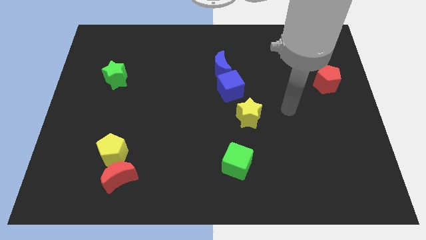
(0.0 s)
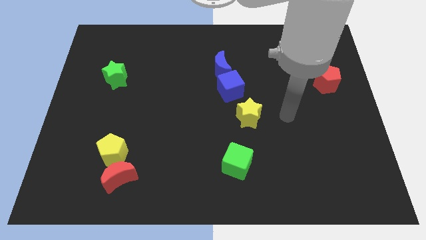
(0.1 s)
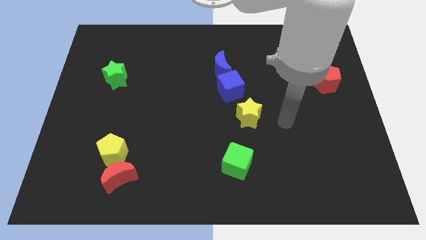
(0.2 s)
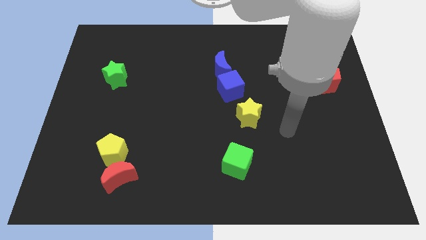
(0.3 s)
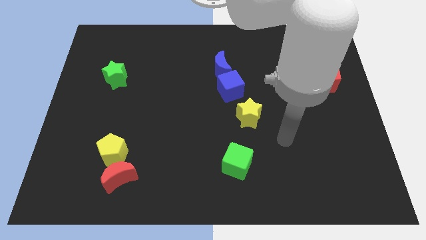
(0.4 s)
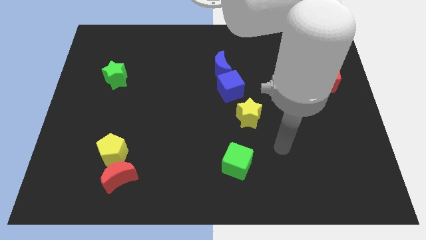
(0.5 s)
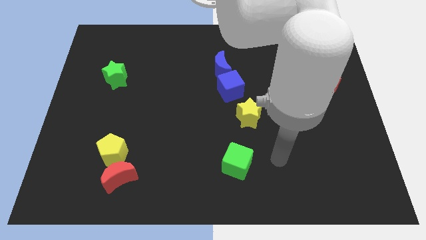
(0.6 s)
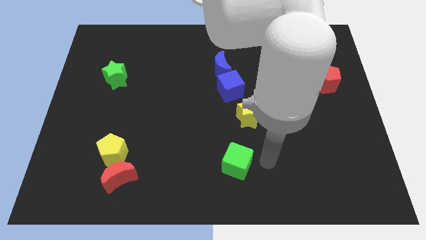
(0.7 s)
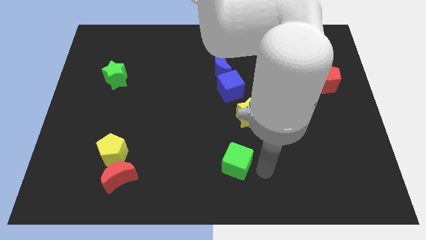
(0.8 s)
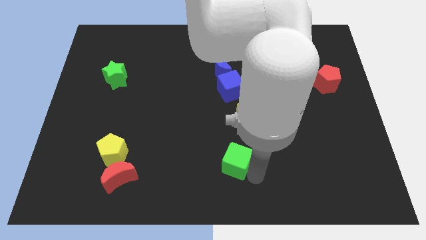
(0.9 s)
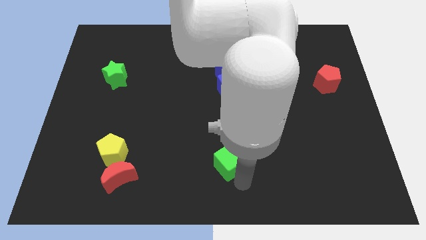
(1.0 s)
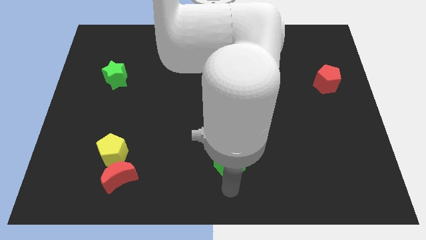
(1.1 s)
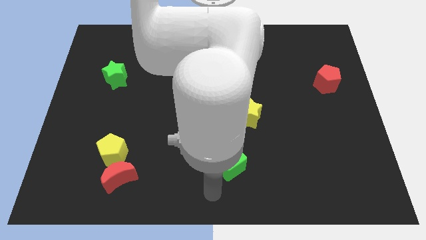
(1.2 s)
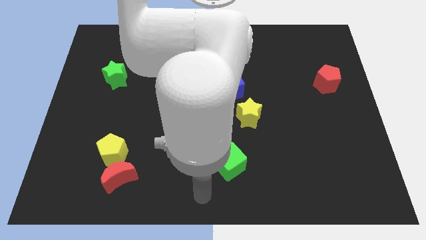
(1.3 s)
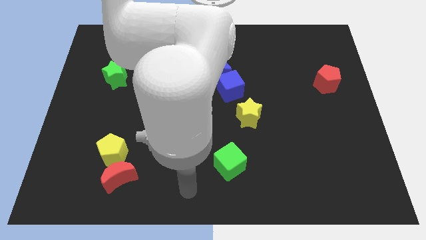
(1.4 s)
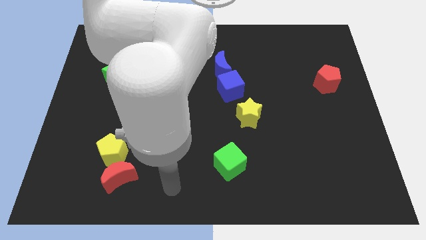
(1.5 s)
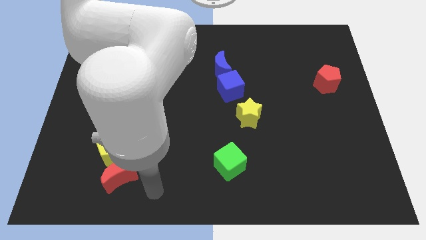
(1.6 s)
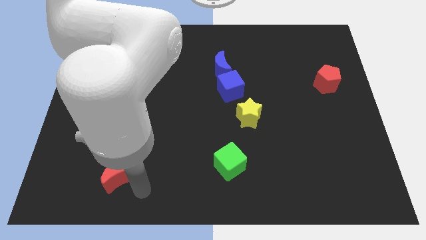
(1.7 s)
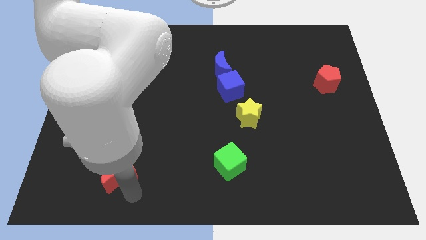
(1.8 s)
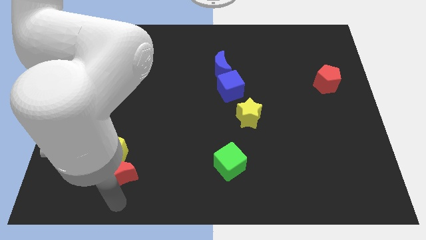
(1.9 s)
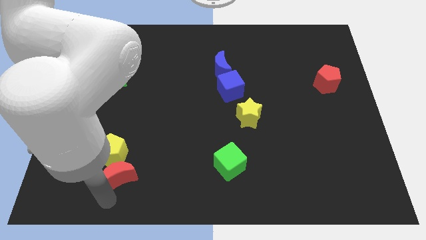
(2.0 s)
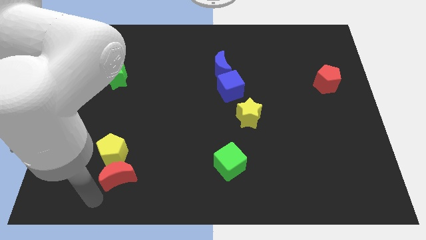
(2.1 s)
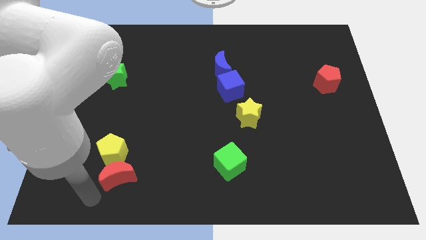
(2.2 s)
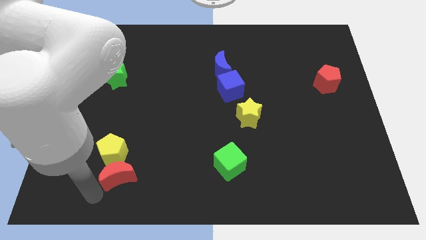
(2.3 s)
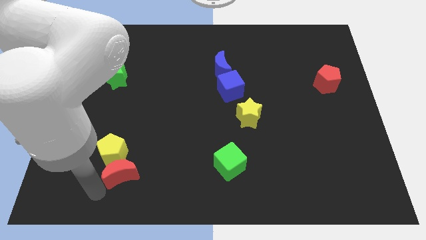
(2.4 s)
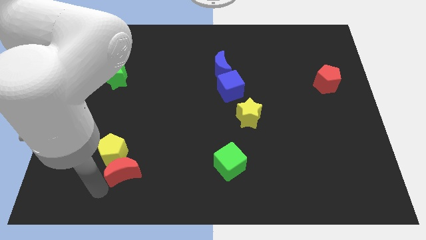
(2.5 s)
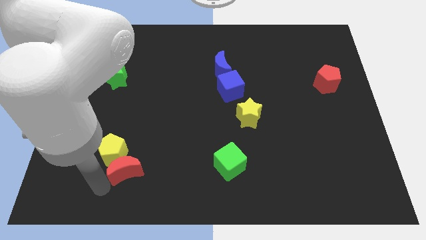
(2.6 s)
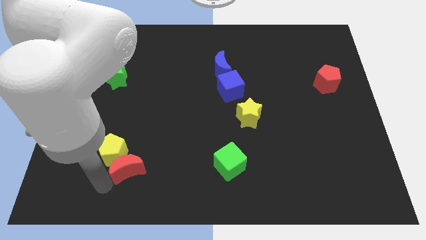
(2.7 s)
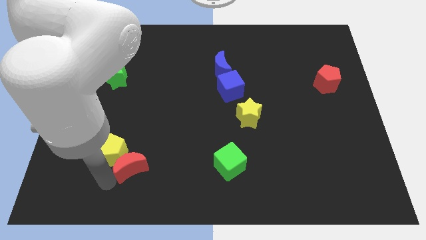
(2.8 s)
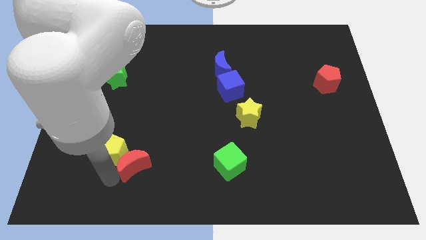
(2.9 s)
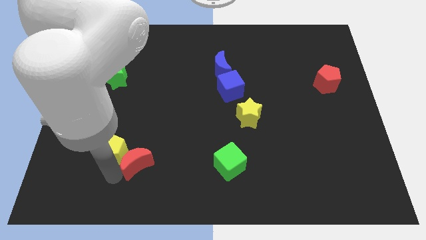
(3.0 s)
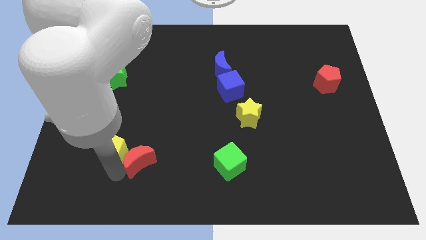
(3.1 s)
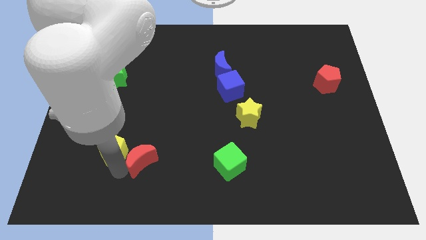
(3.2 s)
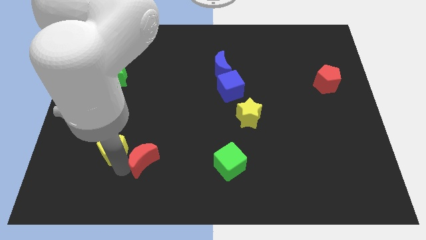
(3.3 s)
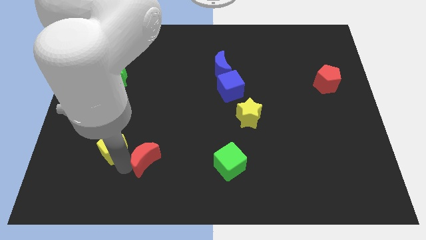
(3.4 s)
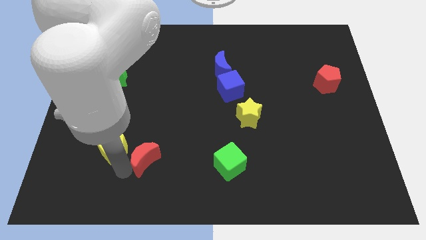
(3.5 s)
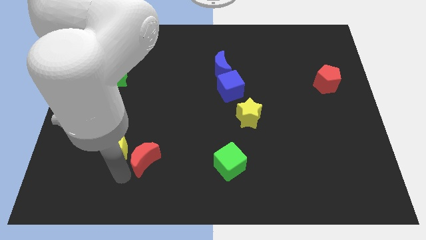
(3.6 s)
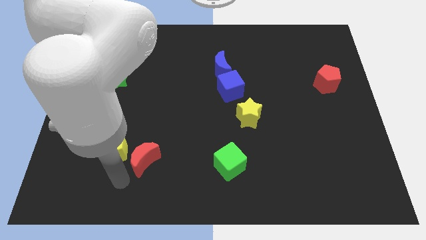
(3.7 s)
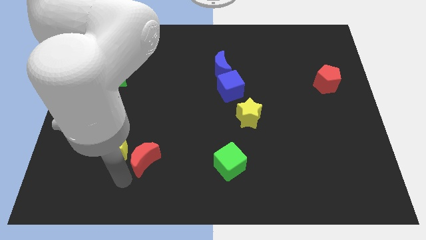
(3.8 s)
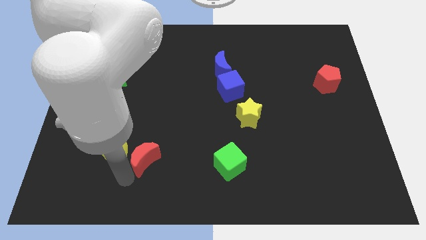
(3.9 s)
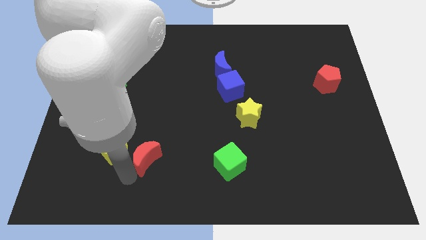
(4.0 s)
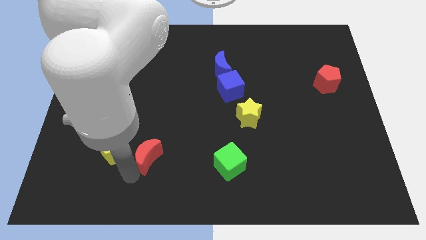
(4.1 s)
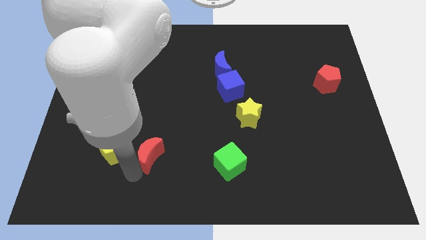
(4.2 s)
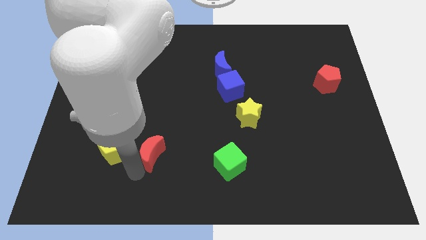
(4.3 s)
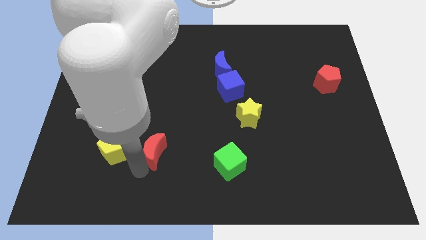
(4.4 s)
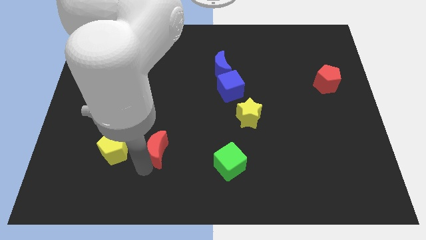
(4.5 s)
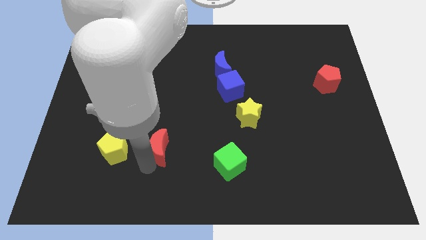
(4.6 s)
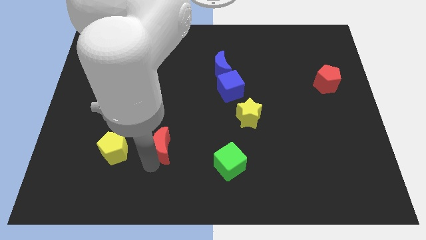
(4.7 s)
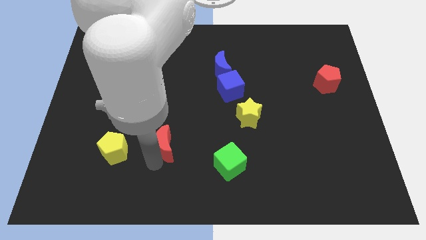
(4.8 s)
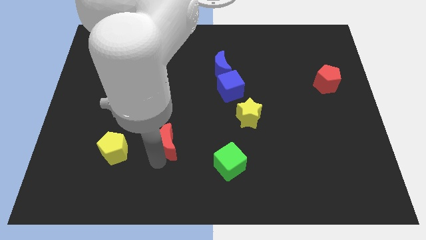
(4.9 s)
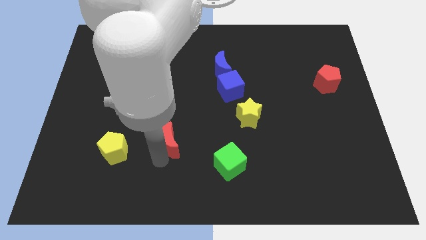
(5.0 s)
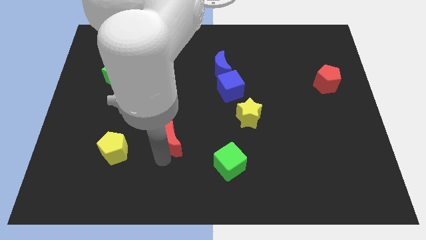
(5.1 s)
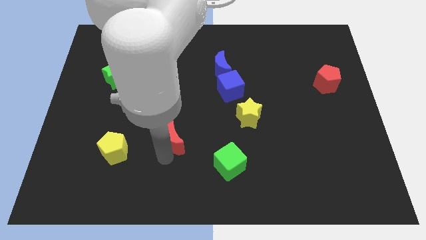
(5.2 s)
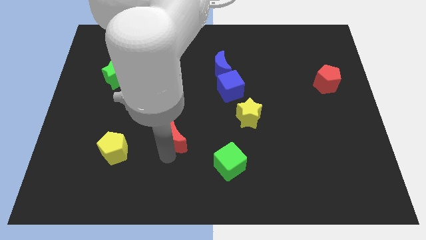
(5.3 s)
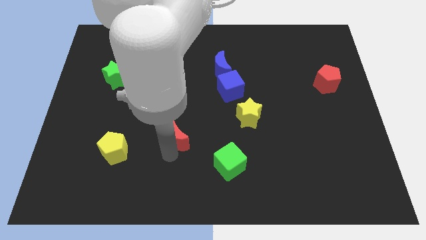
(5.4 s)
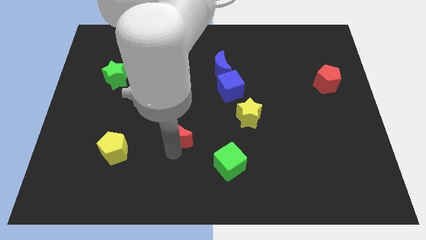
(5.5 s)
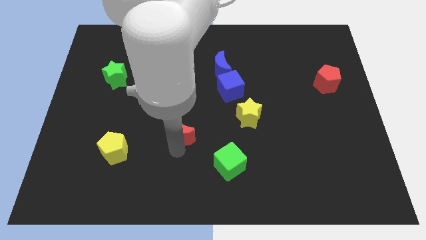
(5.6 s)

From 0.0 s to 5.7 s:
slide the red moon to the center of the board

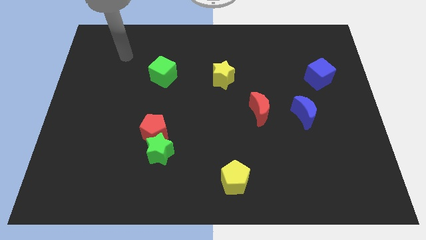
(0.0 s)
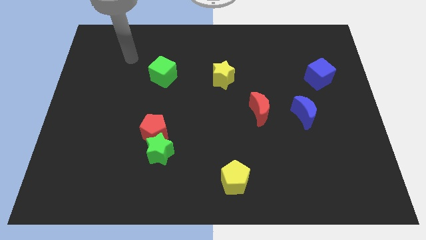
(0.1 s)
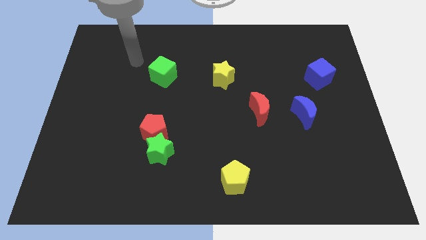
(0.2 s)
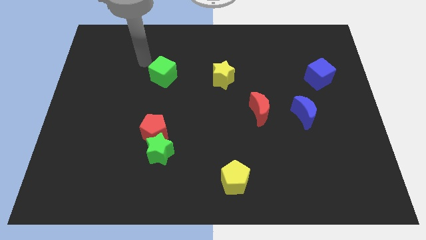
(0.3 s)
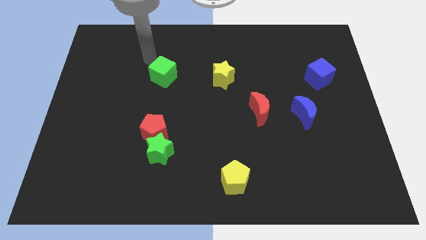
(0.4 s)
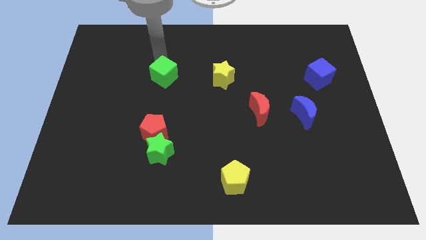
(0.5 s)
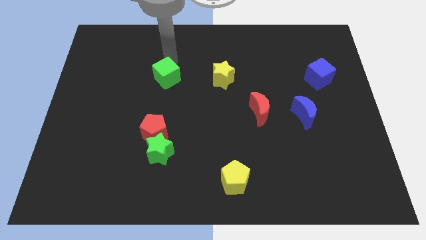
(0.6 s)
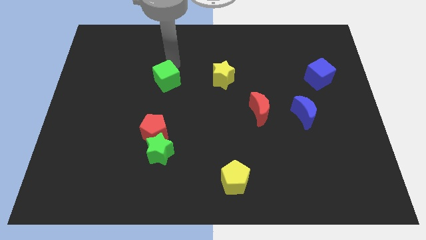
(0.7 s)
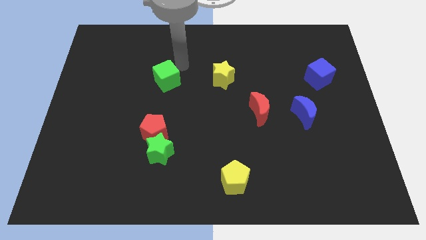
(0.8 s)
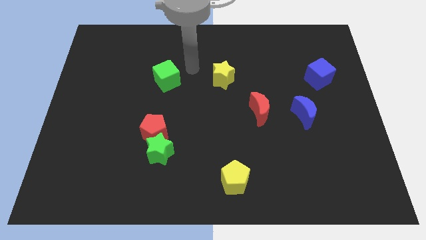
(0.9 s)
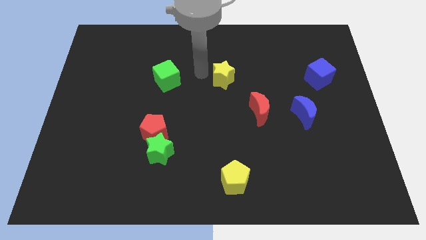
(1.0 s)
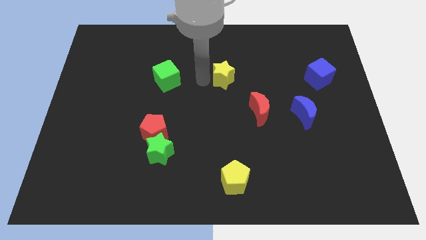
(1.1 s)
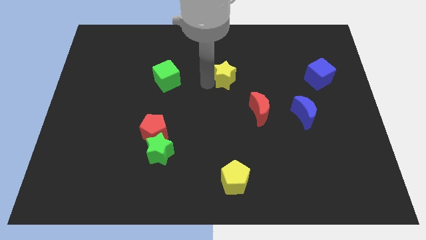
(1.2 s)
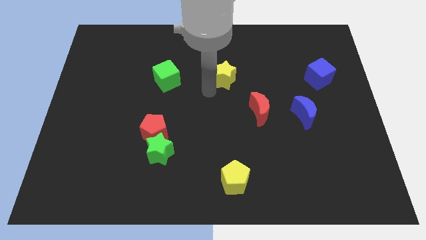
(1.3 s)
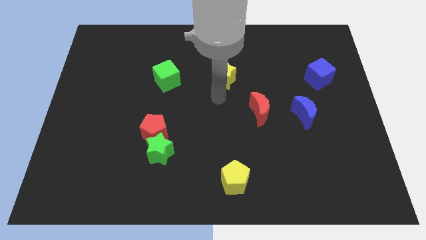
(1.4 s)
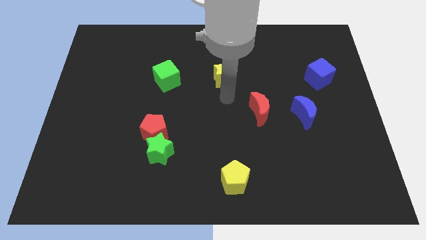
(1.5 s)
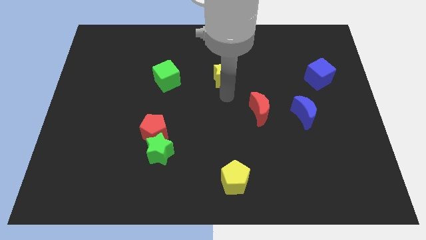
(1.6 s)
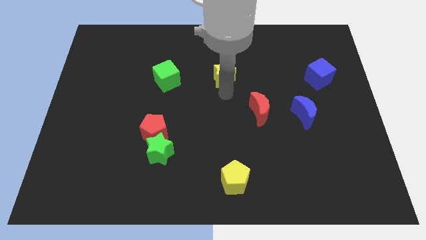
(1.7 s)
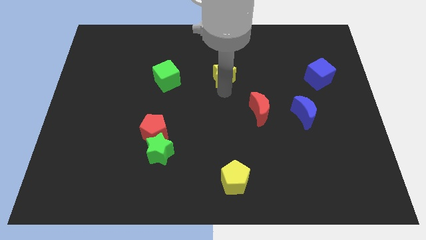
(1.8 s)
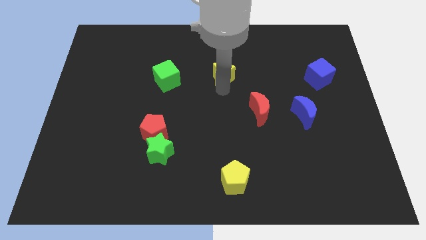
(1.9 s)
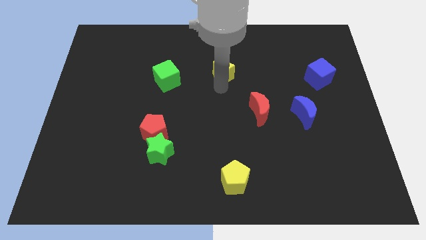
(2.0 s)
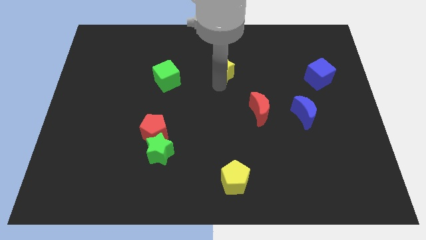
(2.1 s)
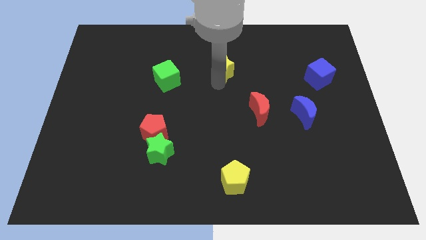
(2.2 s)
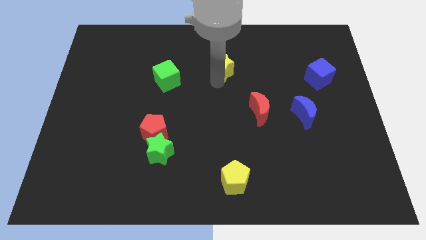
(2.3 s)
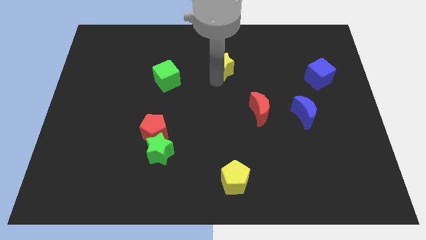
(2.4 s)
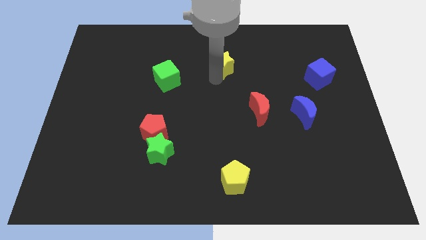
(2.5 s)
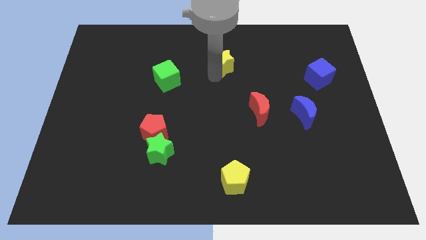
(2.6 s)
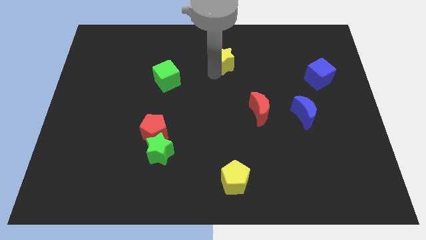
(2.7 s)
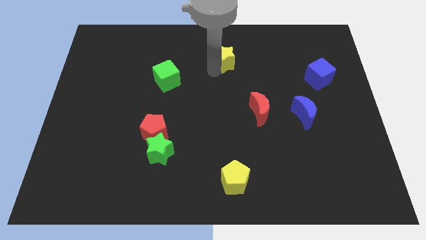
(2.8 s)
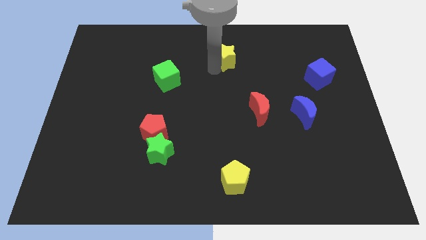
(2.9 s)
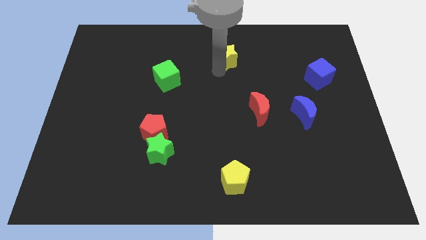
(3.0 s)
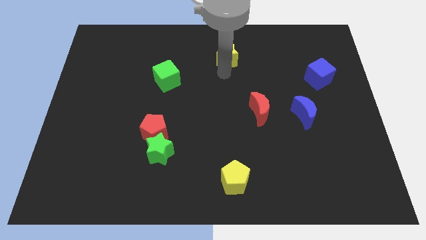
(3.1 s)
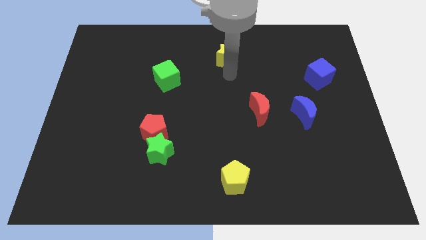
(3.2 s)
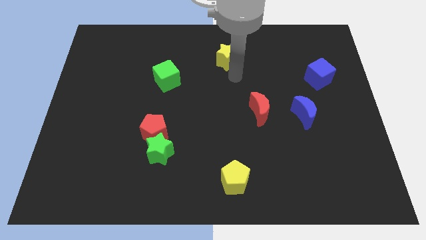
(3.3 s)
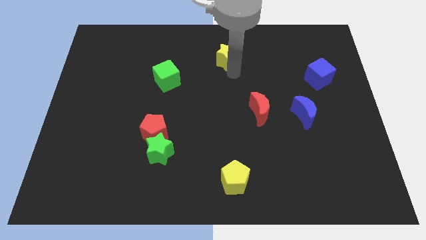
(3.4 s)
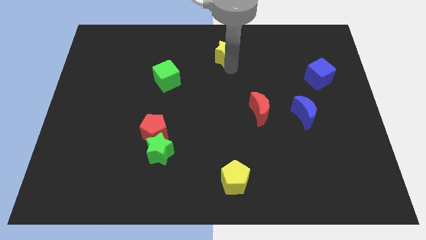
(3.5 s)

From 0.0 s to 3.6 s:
move the yellow star to the top side
